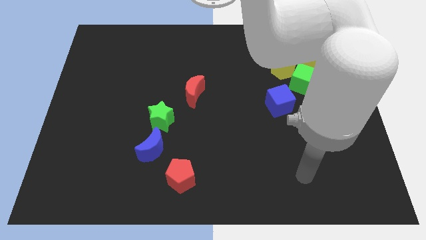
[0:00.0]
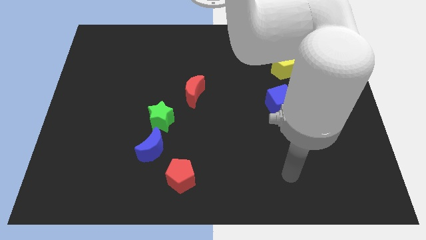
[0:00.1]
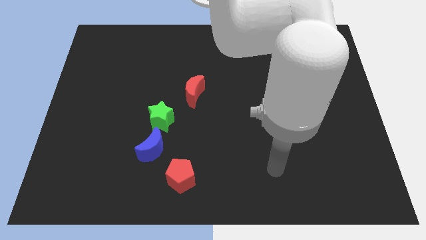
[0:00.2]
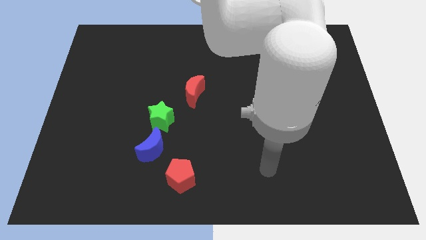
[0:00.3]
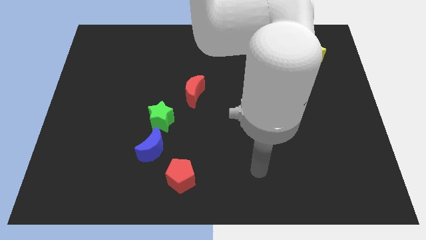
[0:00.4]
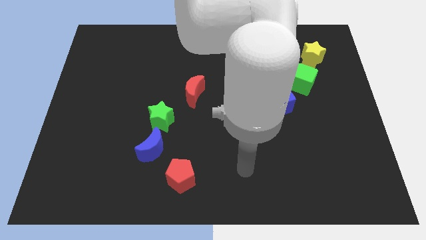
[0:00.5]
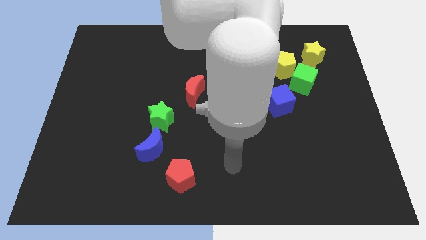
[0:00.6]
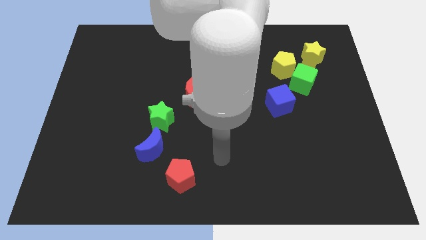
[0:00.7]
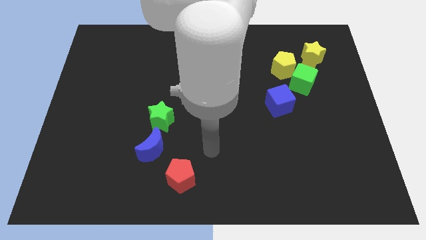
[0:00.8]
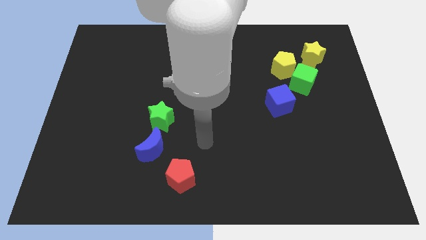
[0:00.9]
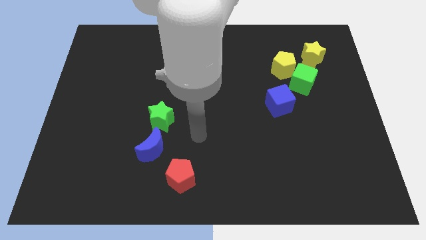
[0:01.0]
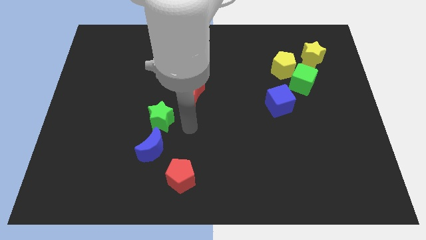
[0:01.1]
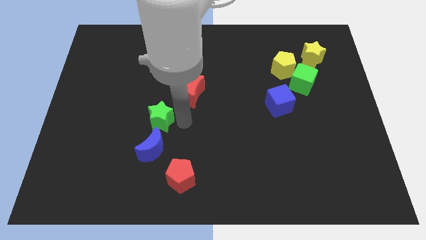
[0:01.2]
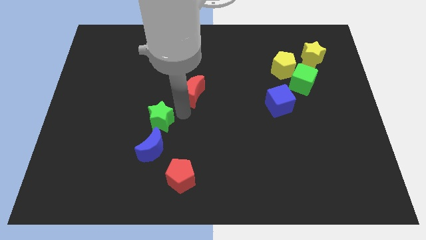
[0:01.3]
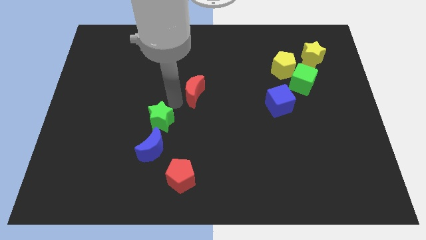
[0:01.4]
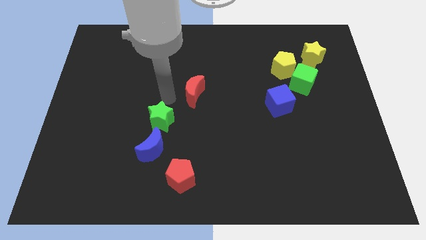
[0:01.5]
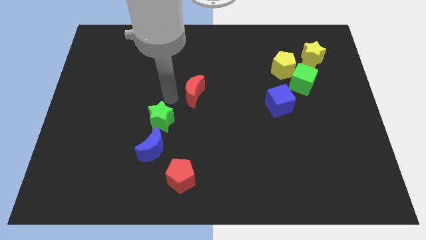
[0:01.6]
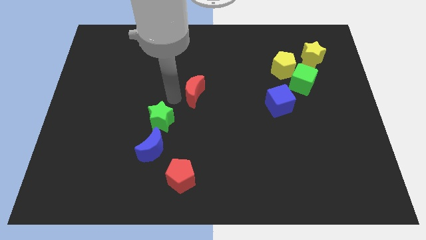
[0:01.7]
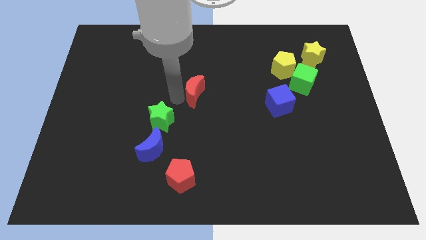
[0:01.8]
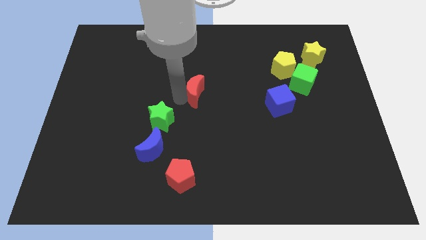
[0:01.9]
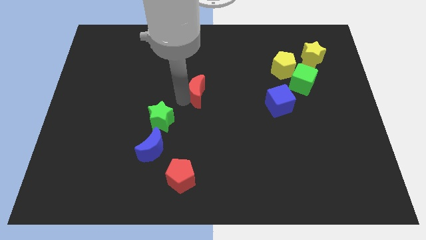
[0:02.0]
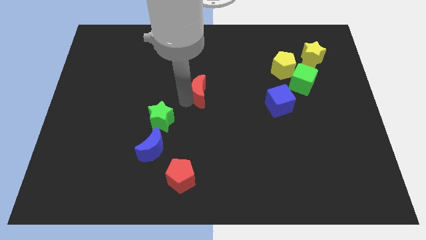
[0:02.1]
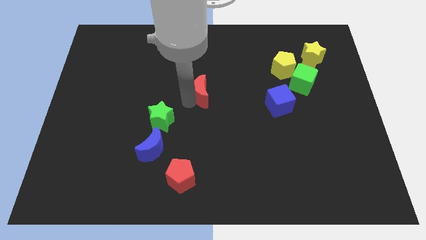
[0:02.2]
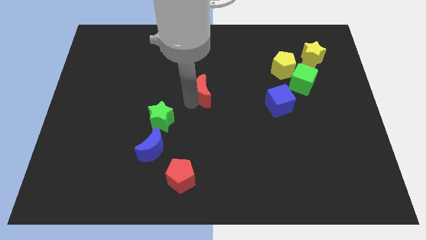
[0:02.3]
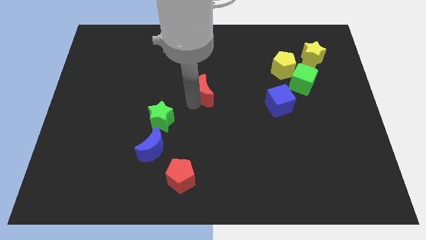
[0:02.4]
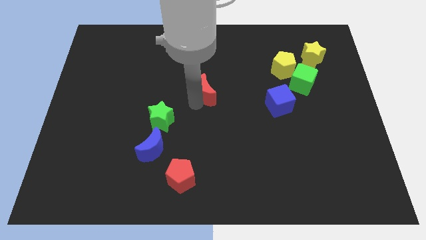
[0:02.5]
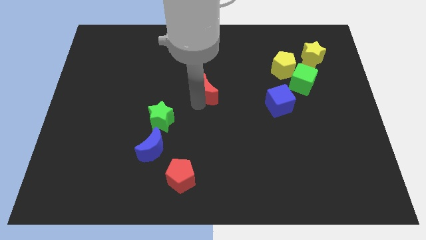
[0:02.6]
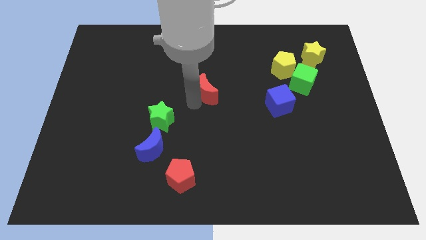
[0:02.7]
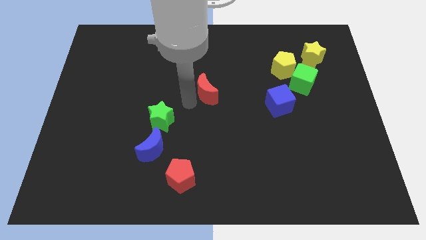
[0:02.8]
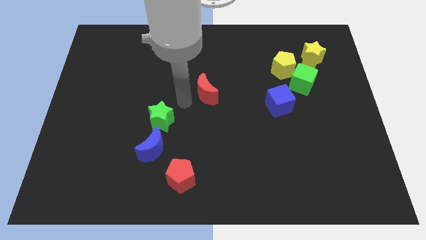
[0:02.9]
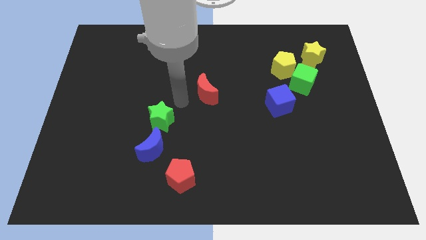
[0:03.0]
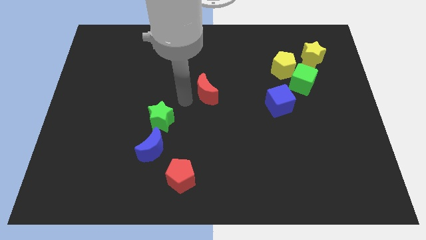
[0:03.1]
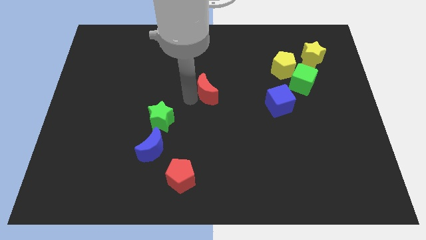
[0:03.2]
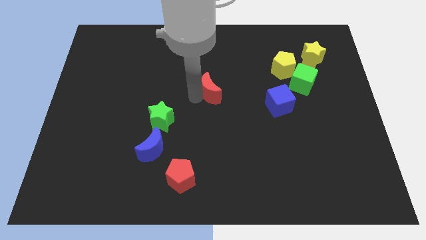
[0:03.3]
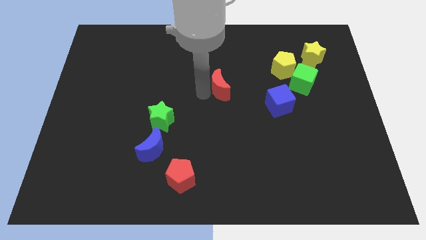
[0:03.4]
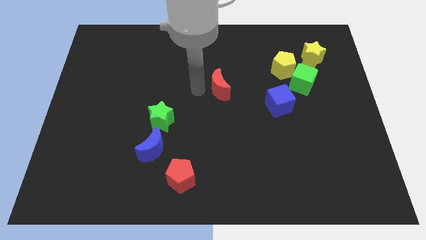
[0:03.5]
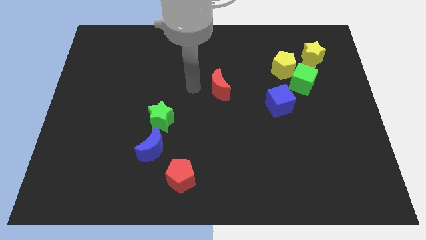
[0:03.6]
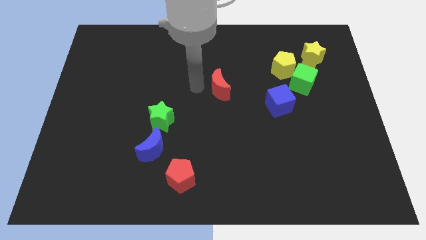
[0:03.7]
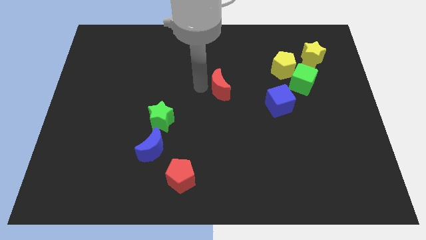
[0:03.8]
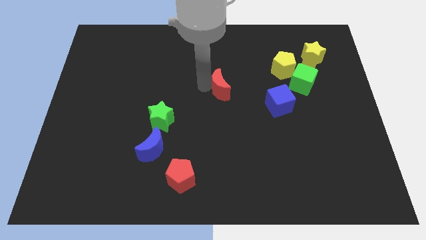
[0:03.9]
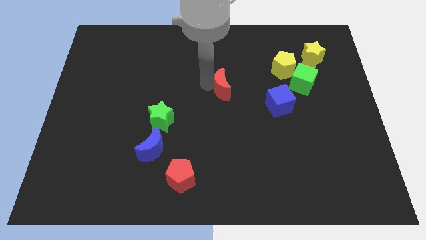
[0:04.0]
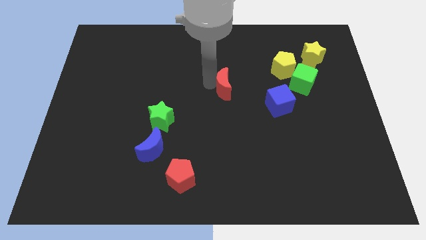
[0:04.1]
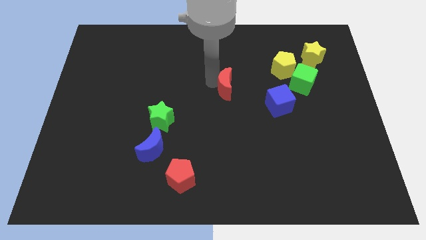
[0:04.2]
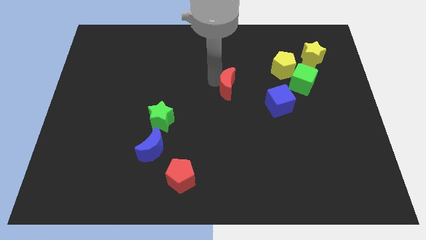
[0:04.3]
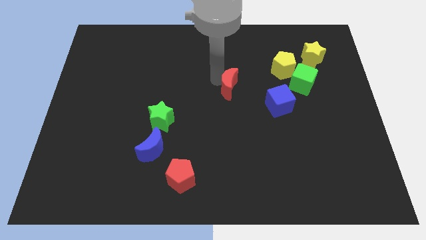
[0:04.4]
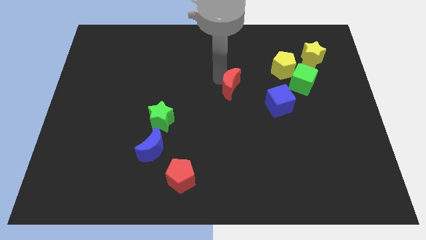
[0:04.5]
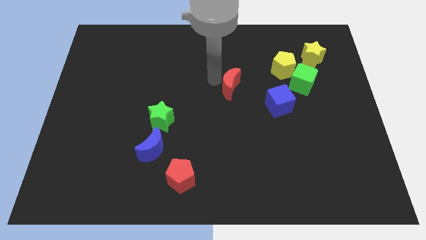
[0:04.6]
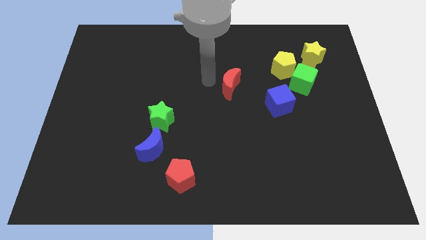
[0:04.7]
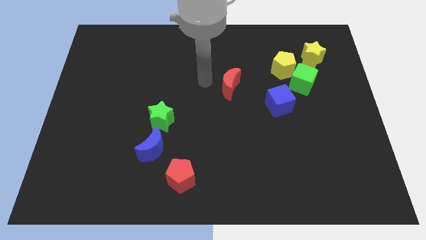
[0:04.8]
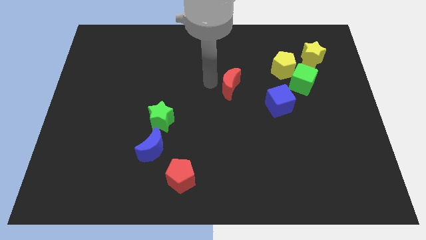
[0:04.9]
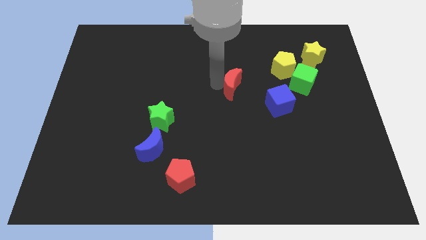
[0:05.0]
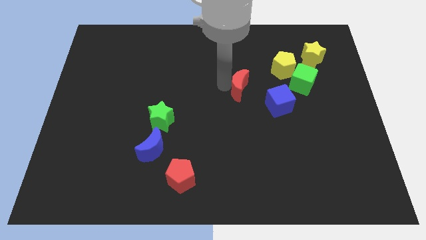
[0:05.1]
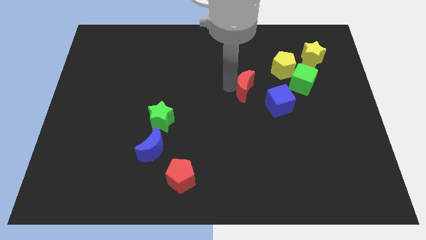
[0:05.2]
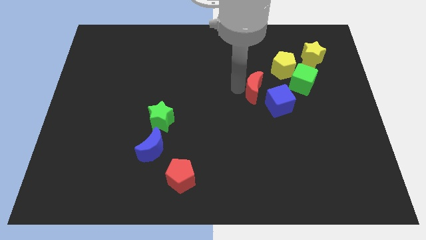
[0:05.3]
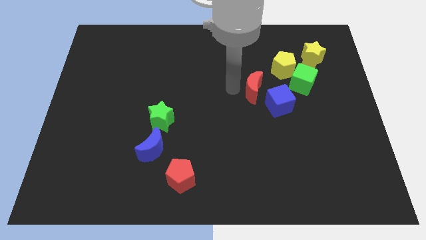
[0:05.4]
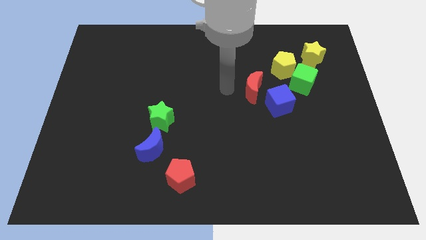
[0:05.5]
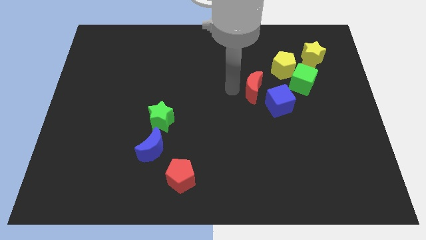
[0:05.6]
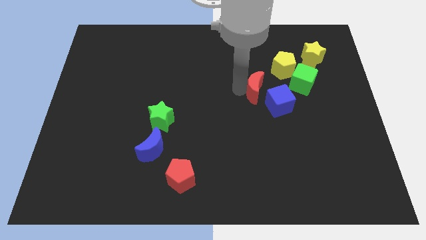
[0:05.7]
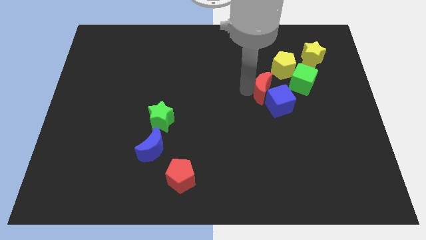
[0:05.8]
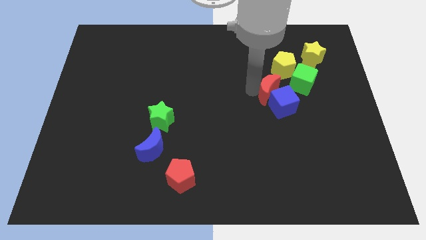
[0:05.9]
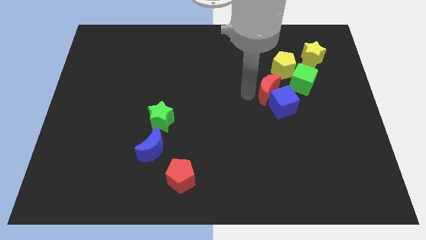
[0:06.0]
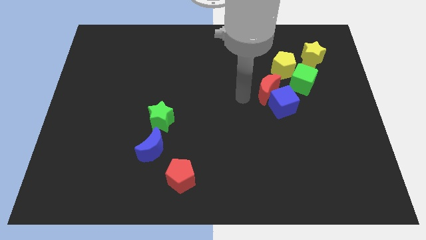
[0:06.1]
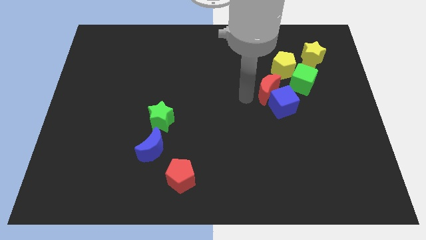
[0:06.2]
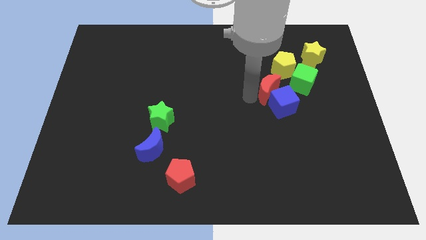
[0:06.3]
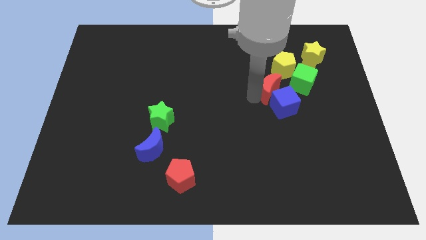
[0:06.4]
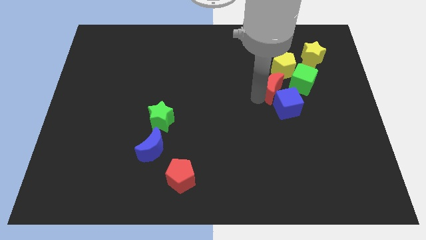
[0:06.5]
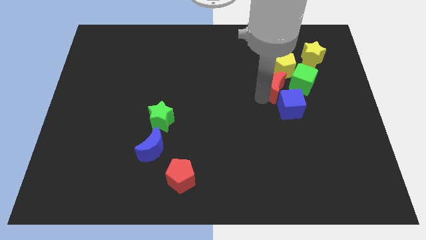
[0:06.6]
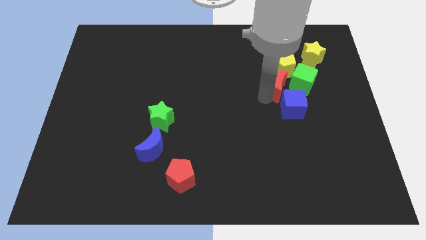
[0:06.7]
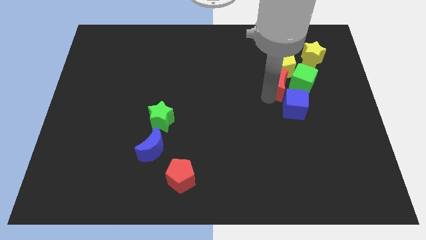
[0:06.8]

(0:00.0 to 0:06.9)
put the red moon towards the green cube

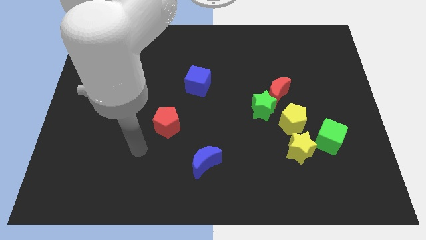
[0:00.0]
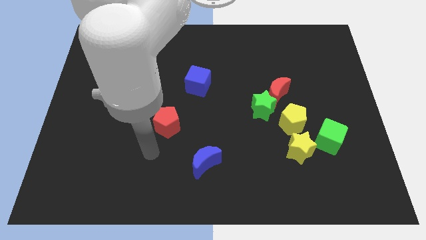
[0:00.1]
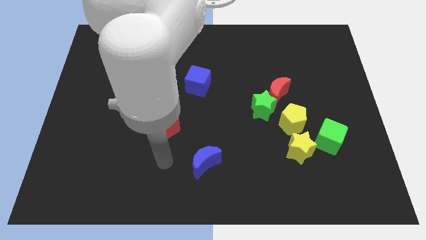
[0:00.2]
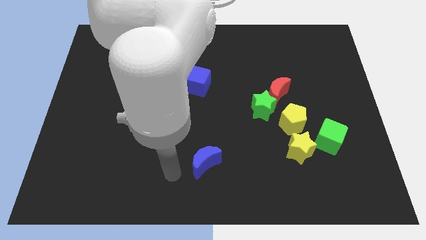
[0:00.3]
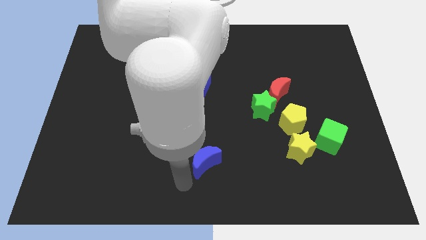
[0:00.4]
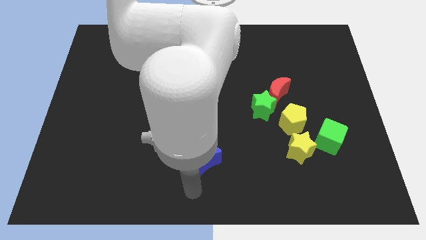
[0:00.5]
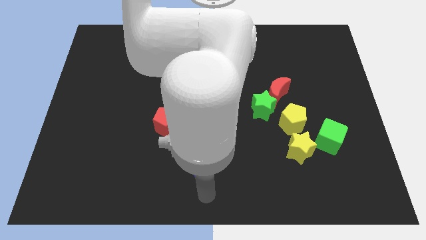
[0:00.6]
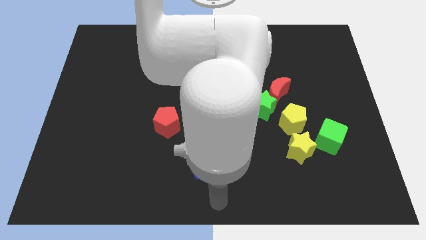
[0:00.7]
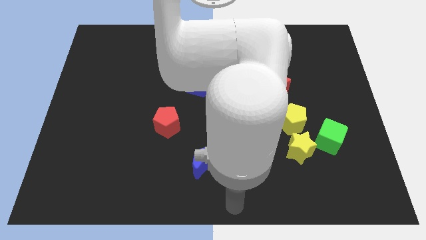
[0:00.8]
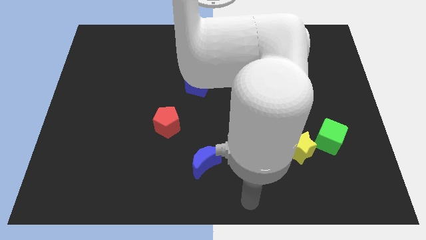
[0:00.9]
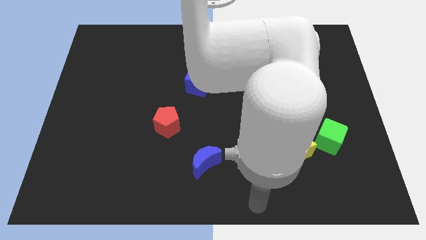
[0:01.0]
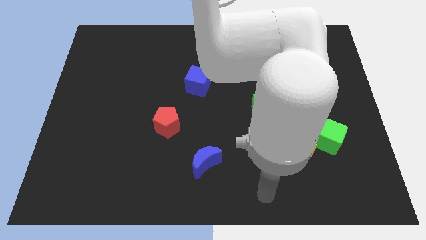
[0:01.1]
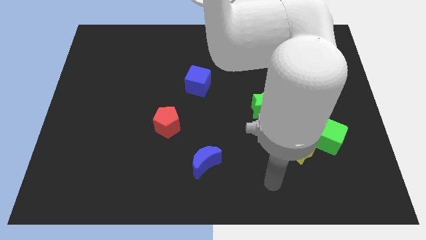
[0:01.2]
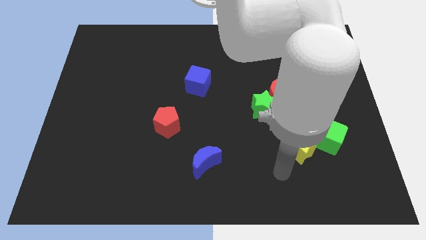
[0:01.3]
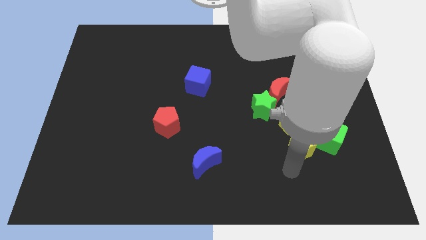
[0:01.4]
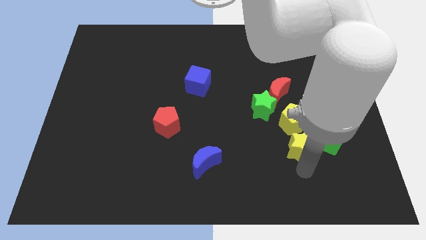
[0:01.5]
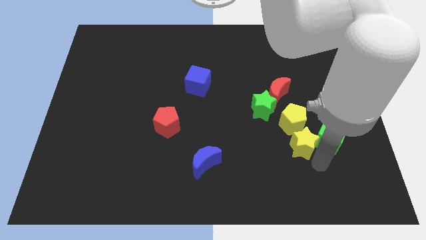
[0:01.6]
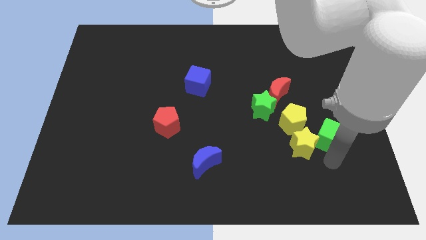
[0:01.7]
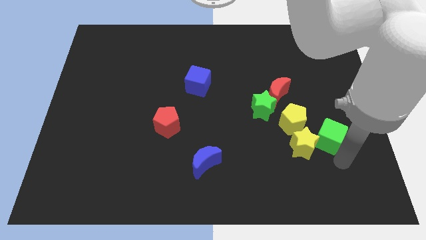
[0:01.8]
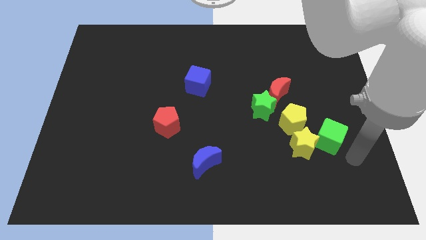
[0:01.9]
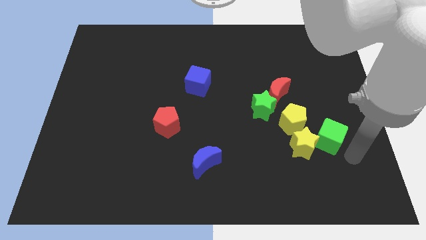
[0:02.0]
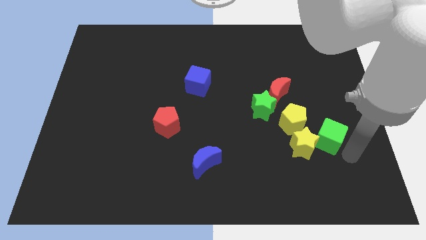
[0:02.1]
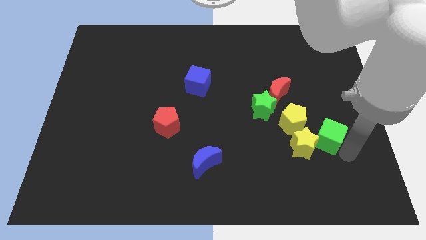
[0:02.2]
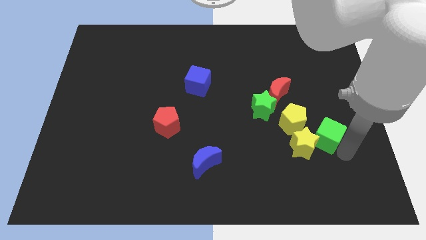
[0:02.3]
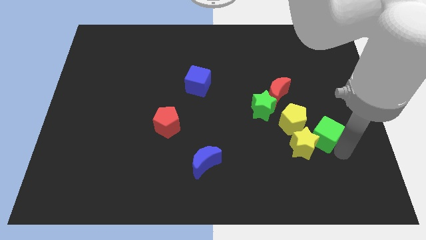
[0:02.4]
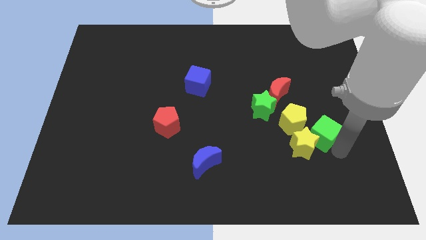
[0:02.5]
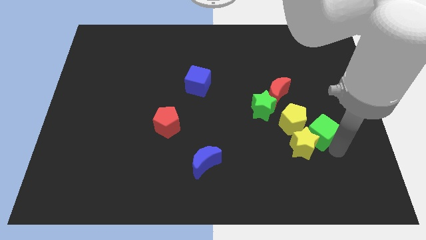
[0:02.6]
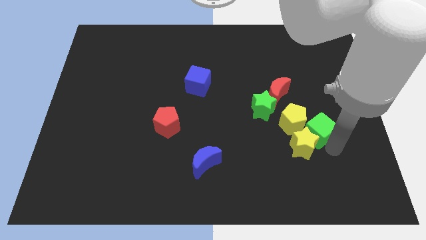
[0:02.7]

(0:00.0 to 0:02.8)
push the green cube close to the yellow pentagon
